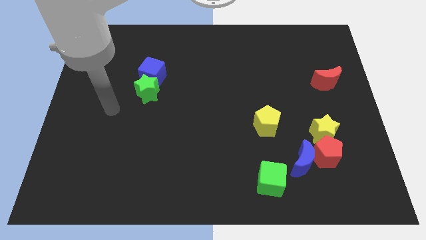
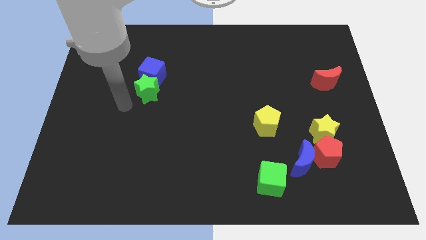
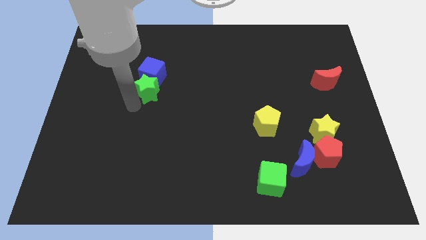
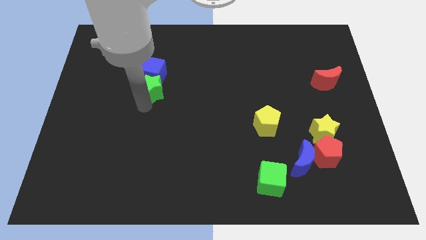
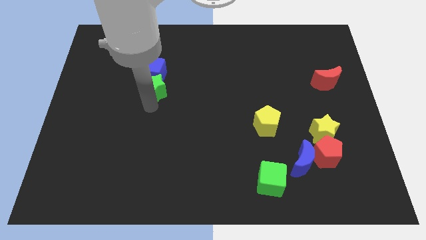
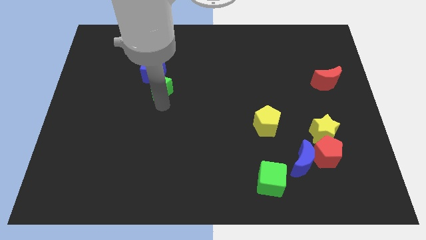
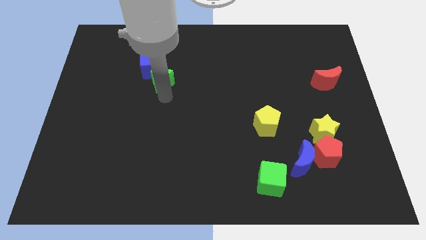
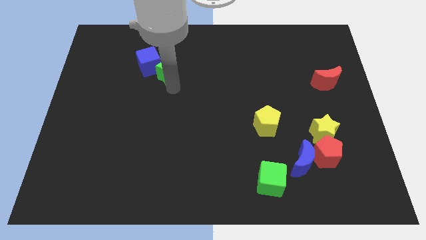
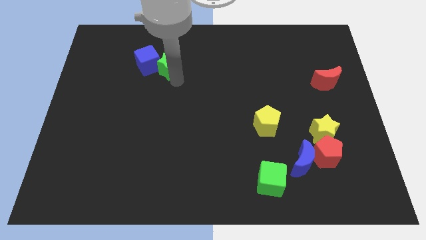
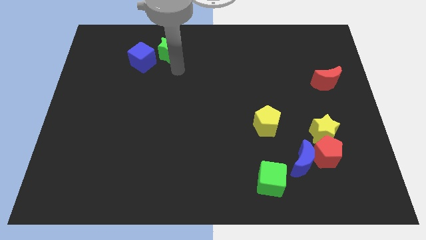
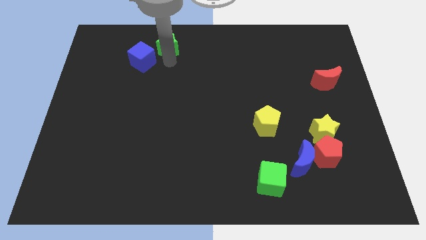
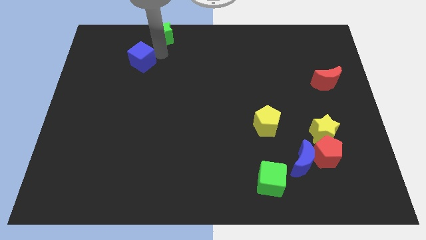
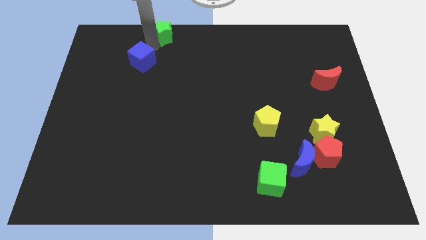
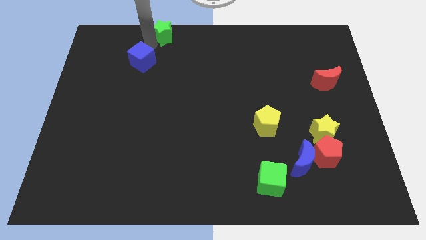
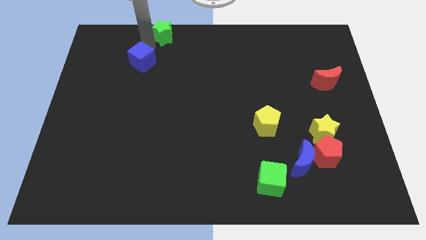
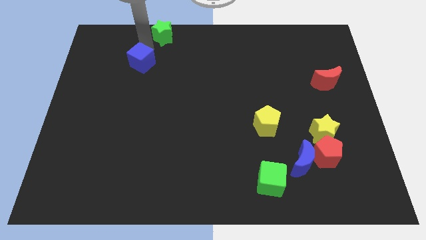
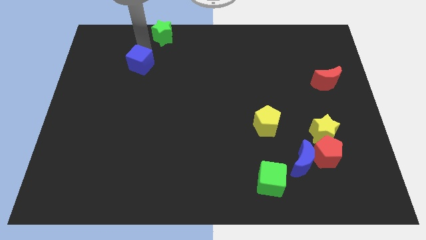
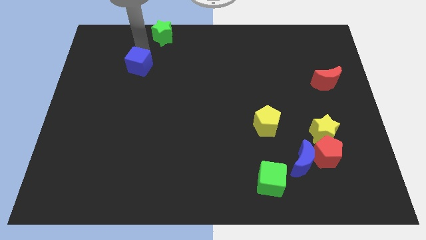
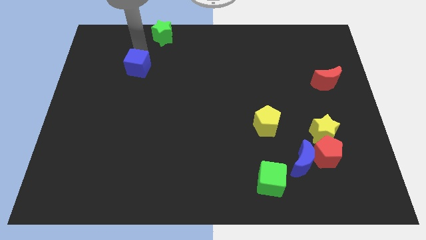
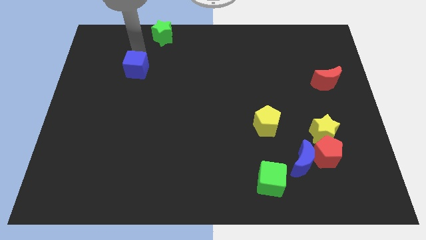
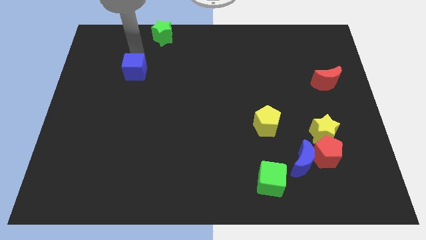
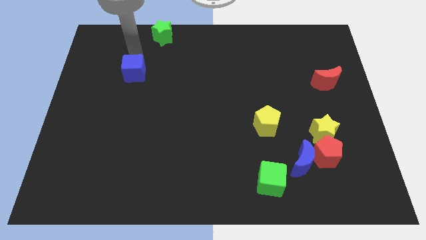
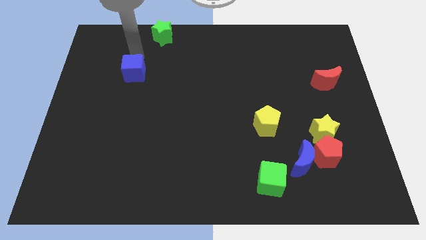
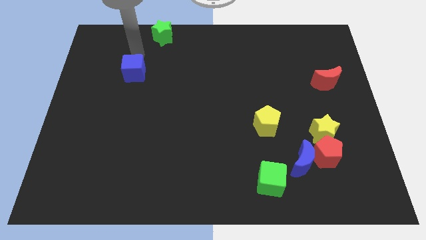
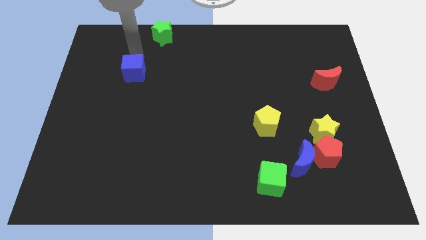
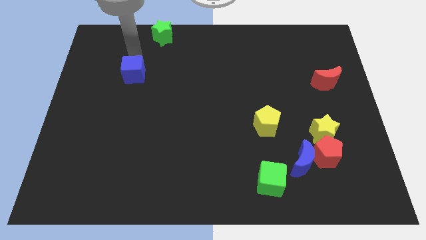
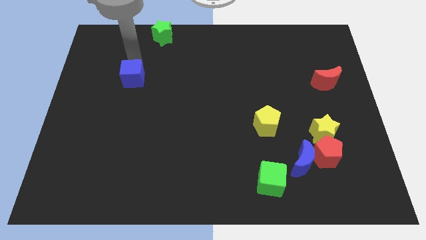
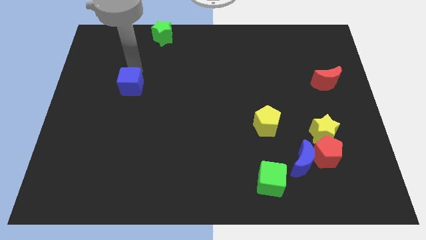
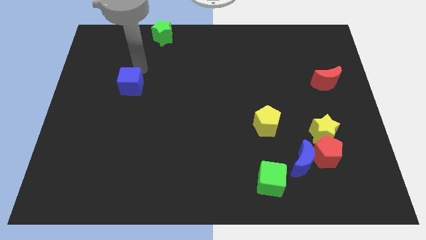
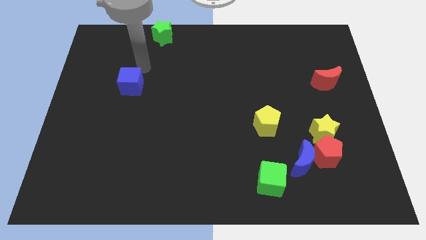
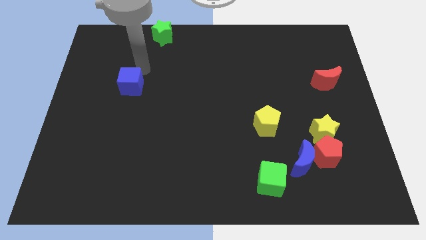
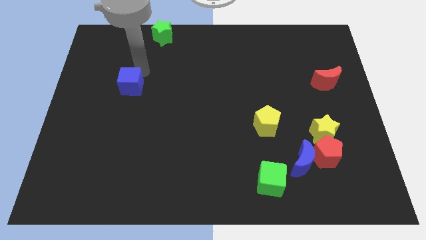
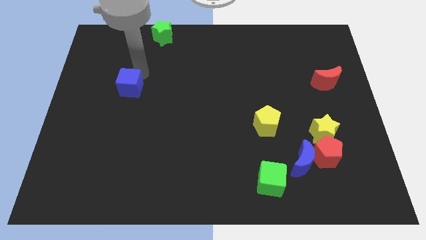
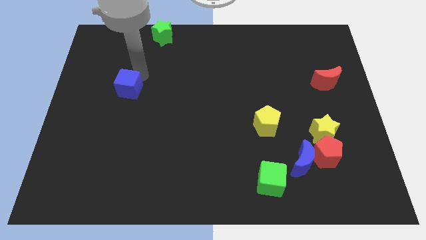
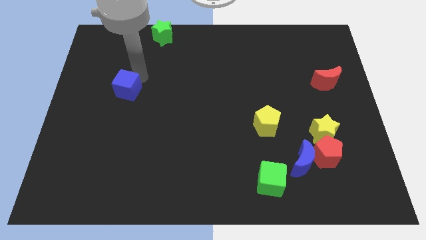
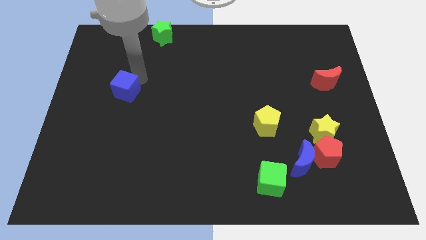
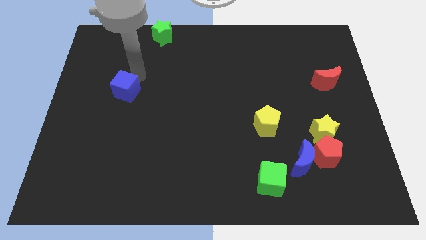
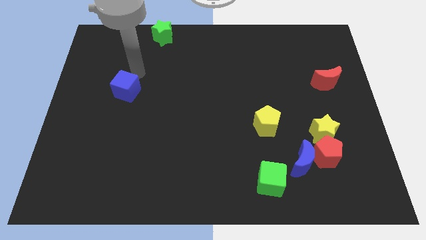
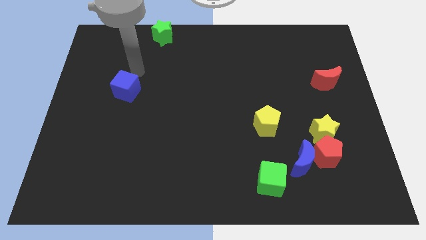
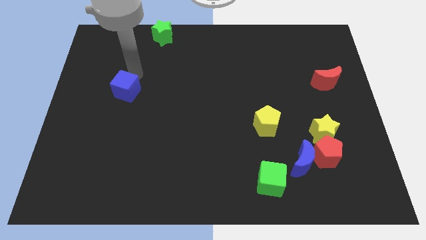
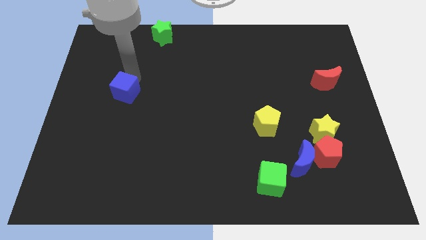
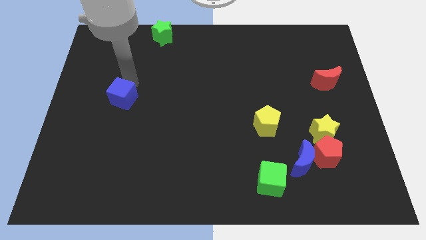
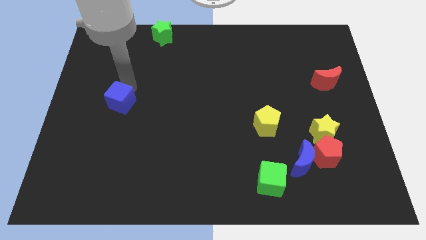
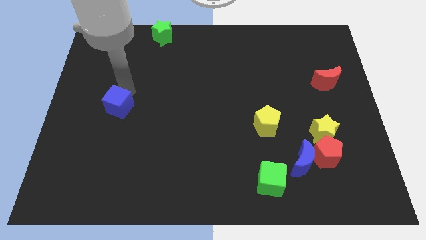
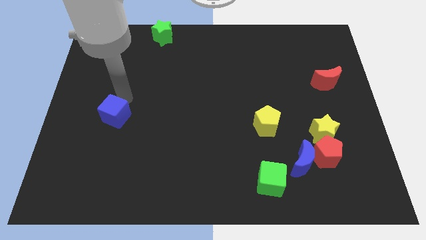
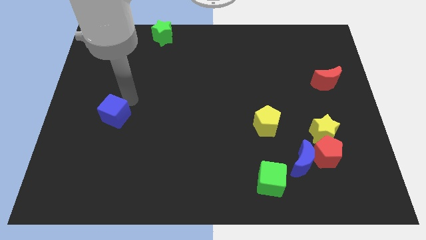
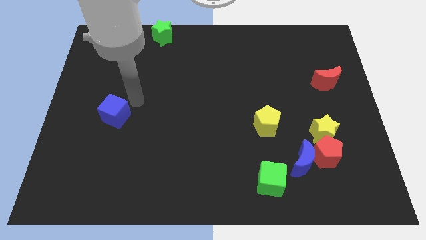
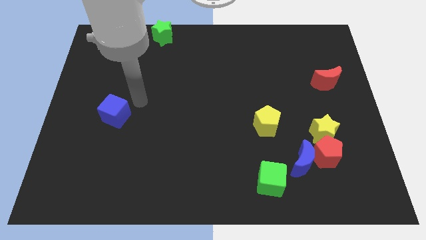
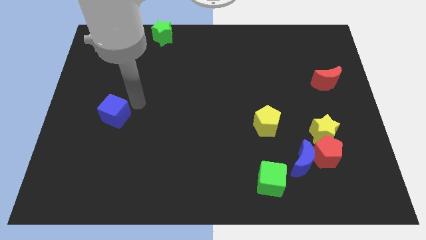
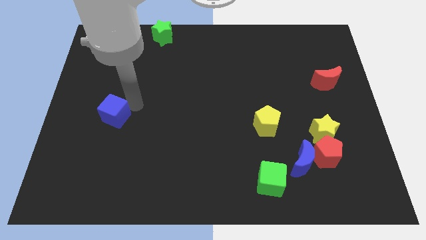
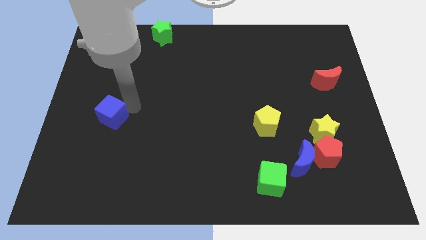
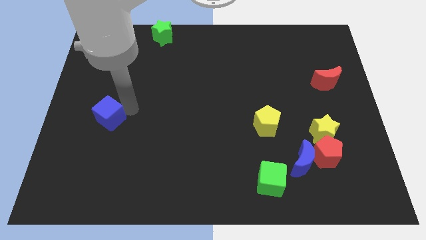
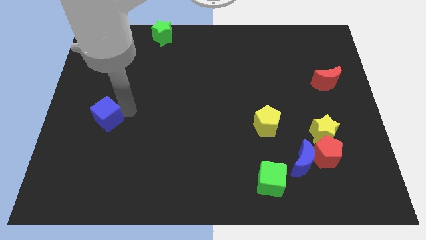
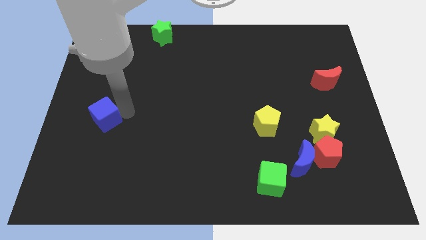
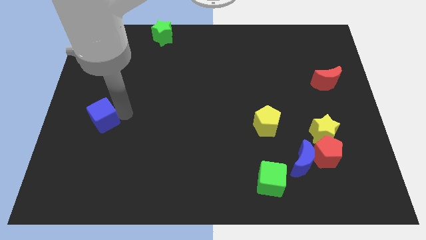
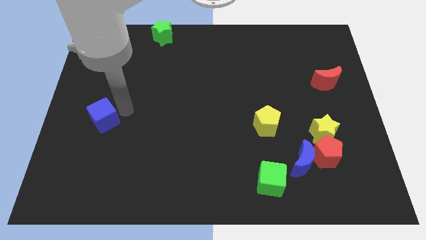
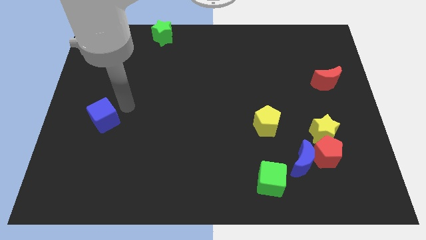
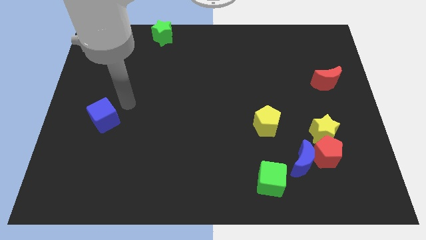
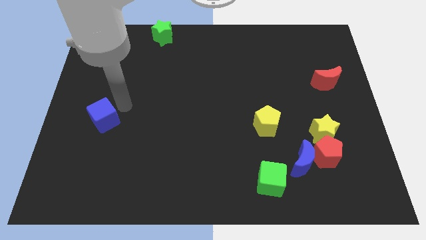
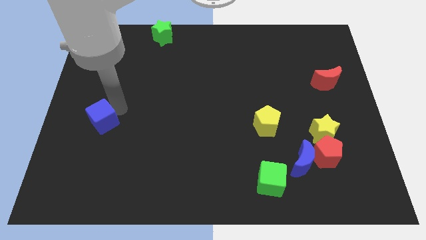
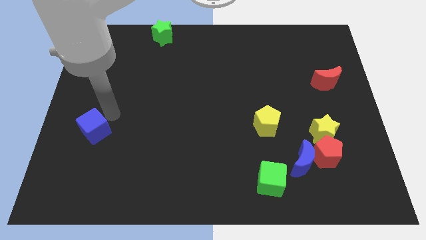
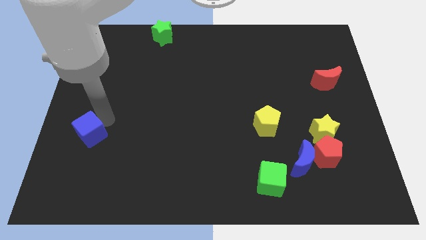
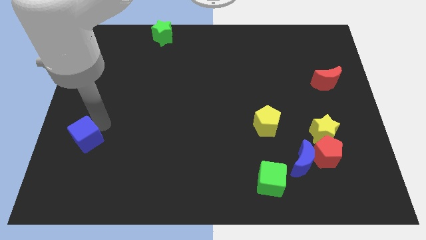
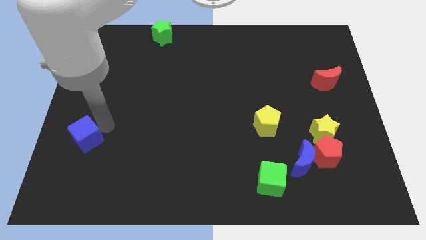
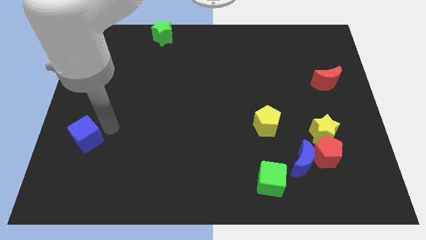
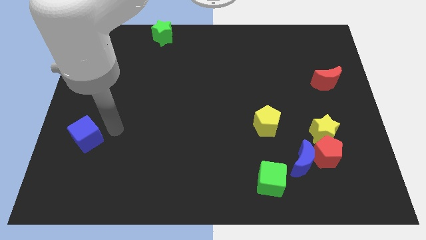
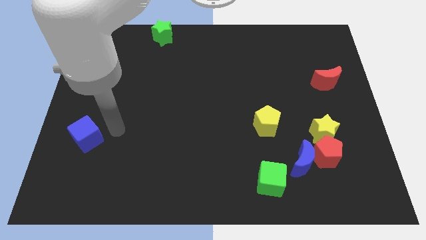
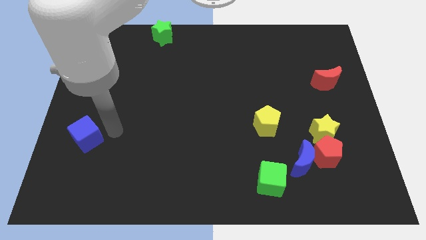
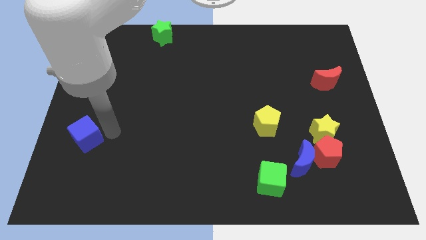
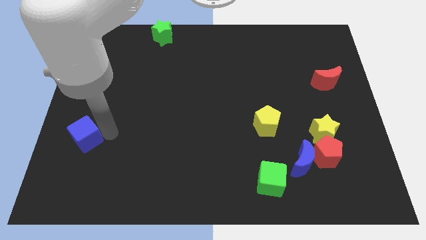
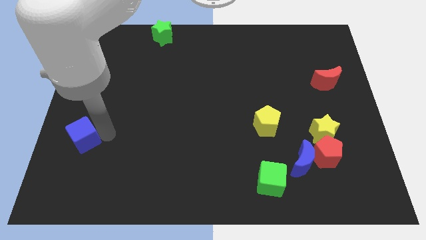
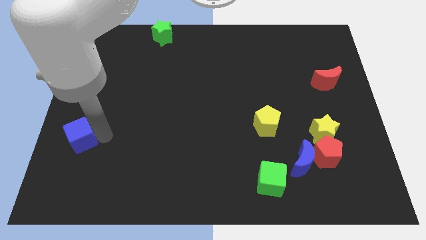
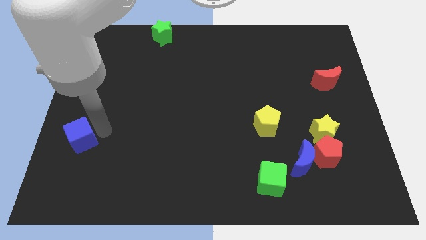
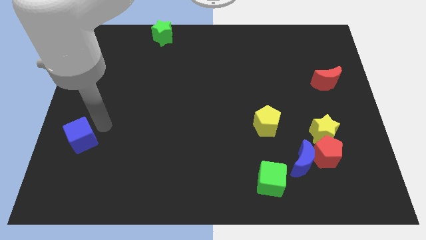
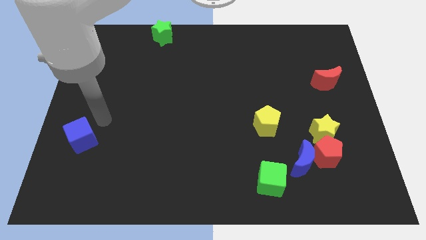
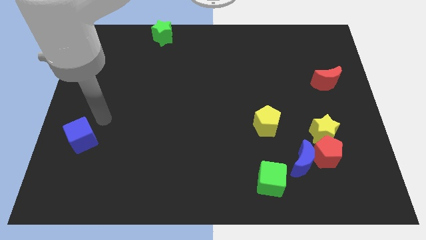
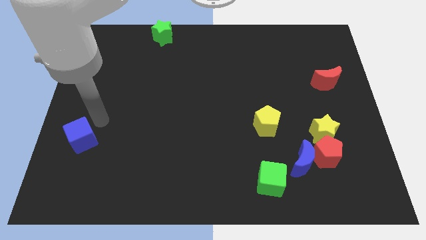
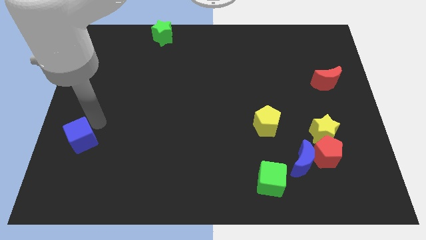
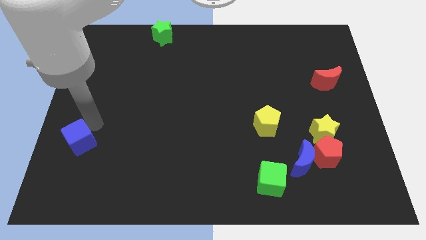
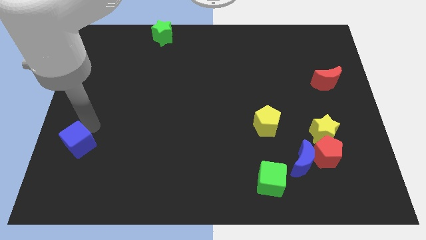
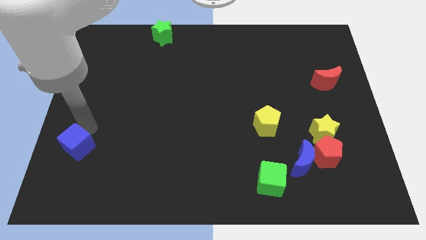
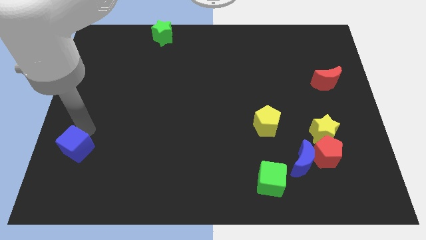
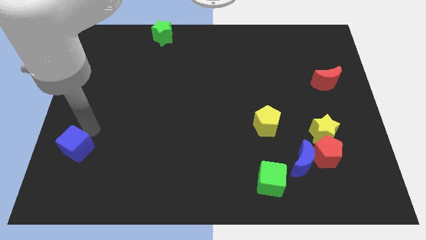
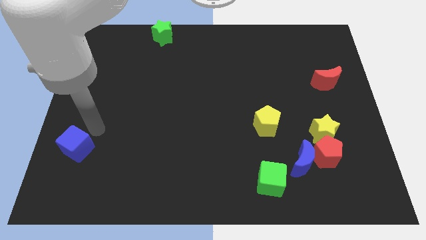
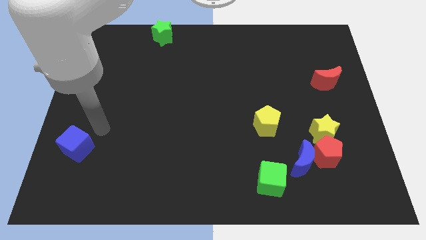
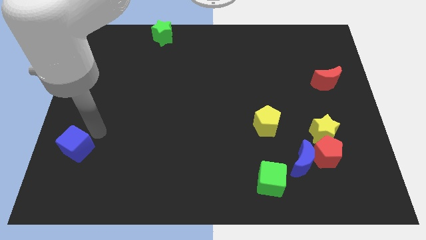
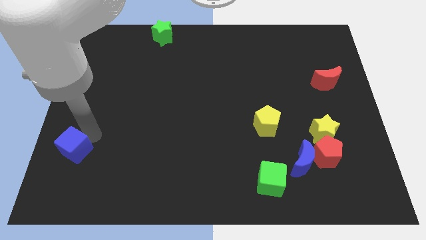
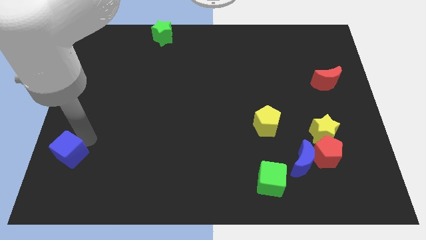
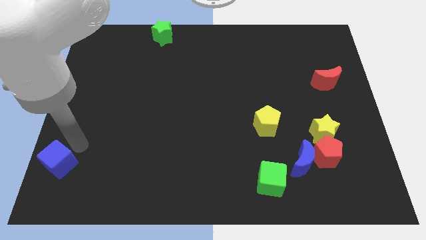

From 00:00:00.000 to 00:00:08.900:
slide the blue cube to the bottom left of the board
